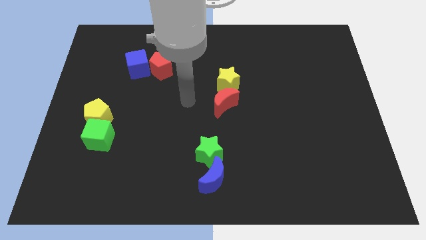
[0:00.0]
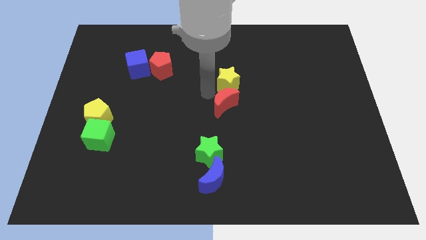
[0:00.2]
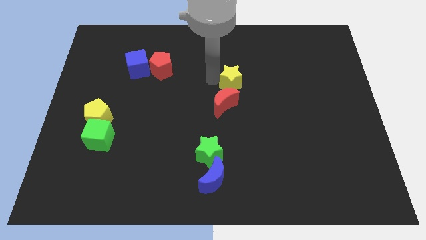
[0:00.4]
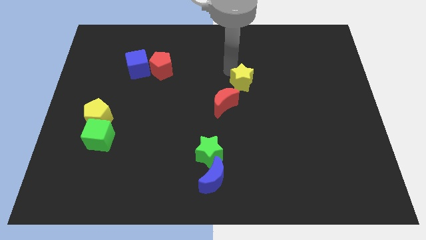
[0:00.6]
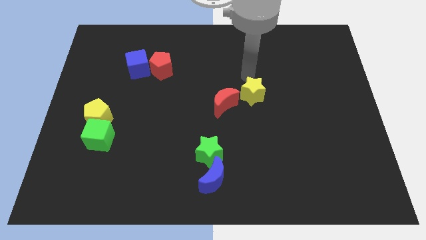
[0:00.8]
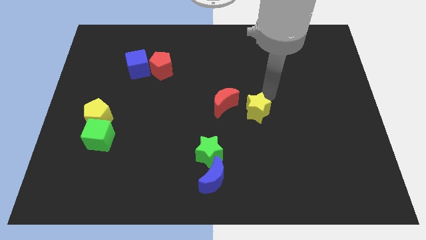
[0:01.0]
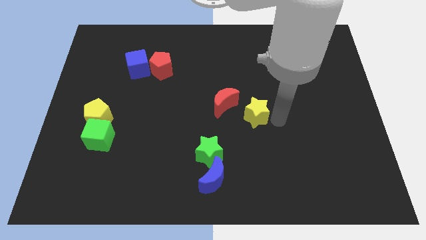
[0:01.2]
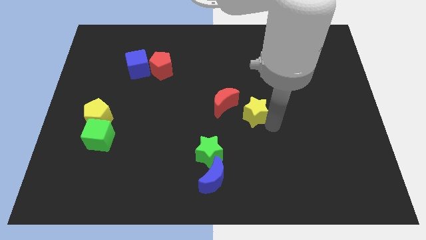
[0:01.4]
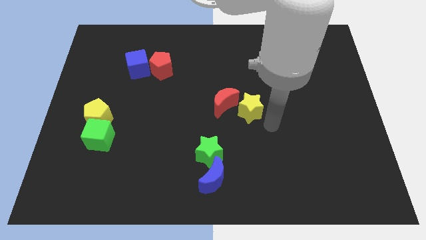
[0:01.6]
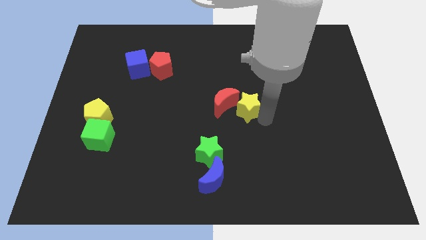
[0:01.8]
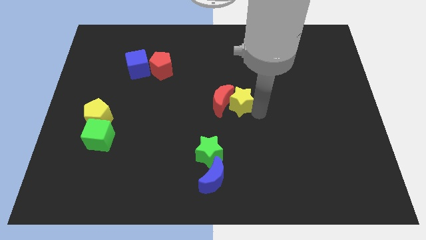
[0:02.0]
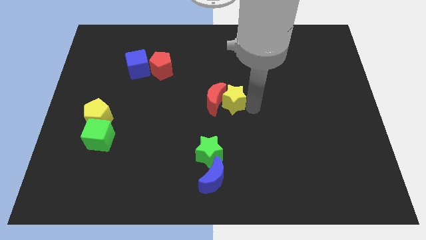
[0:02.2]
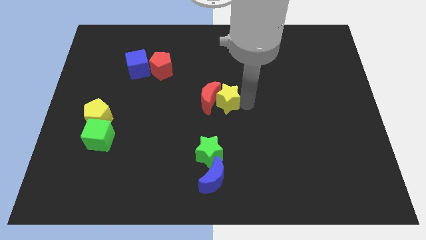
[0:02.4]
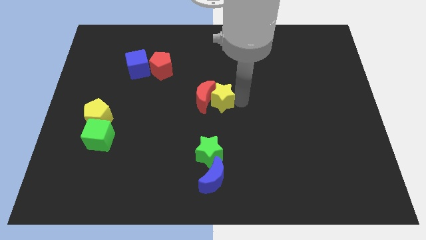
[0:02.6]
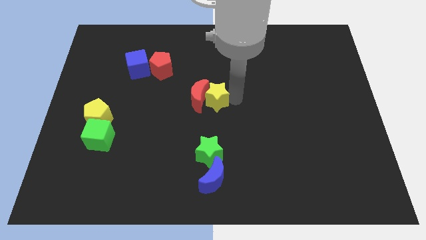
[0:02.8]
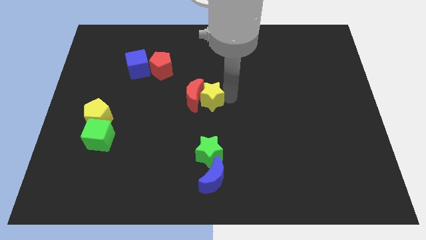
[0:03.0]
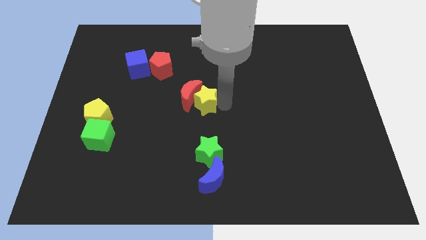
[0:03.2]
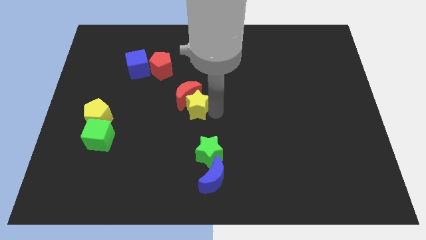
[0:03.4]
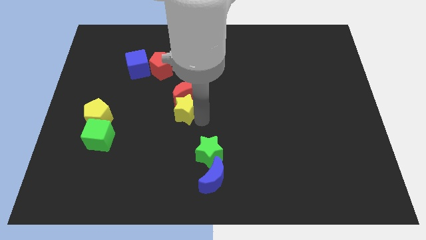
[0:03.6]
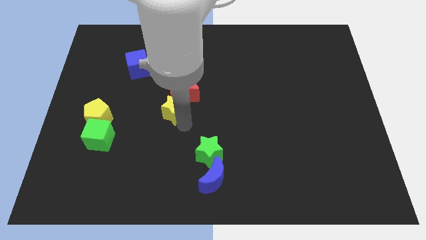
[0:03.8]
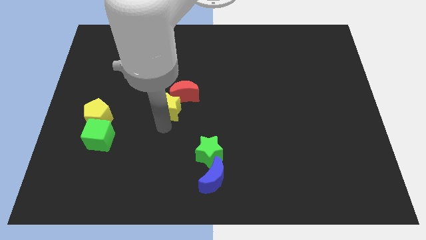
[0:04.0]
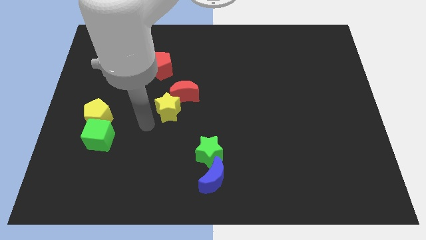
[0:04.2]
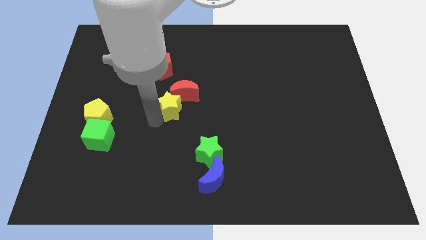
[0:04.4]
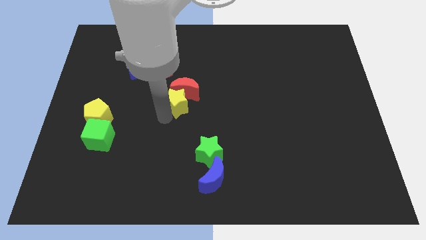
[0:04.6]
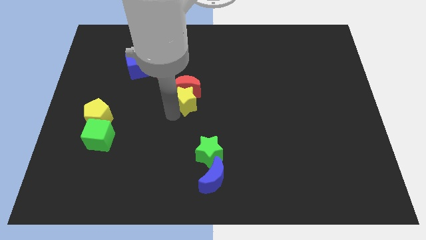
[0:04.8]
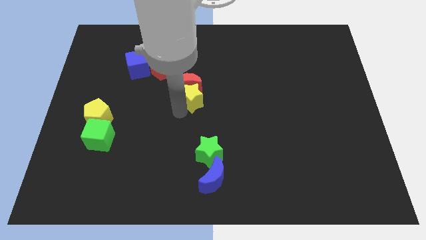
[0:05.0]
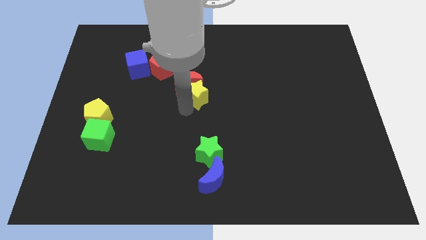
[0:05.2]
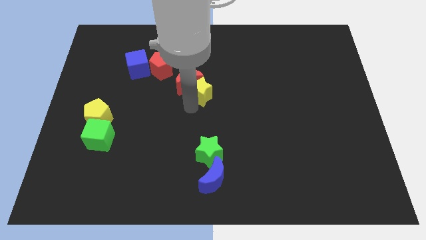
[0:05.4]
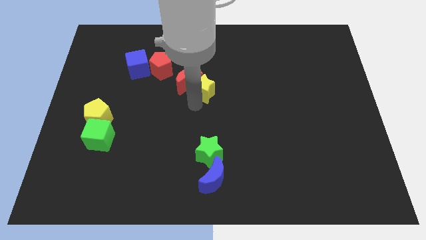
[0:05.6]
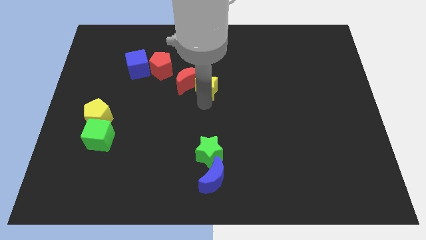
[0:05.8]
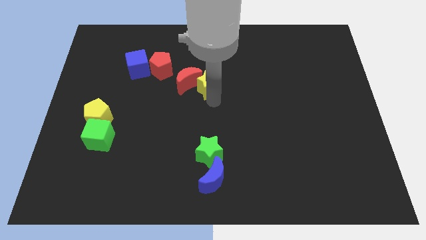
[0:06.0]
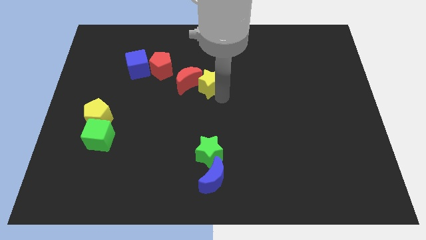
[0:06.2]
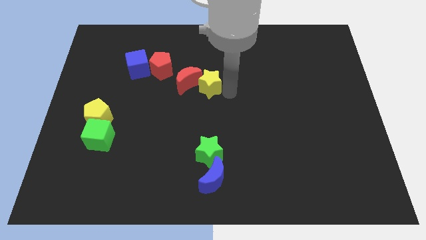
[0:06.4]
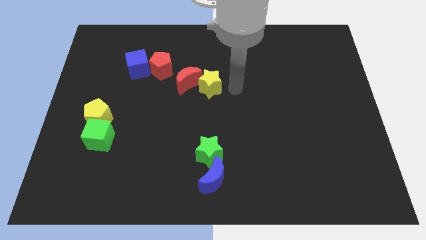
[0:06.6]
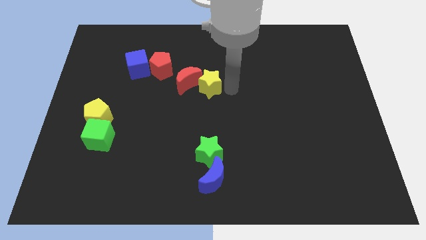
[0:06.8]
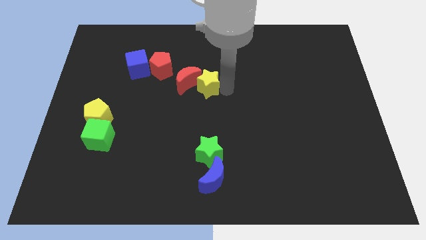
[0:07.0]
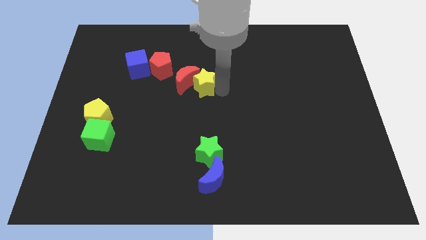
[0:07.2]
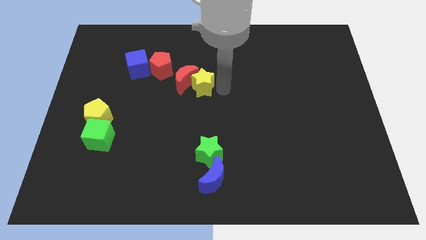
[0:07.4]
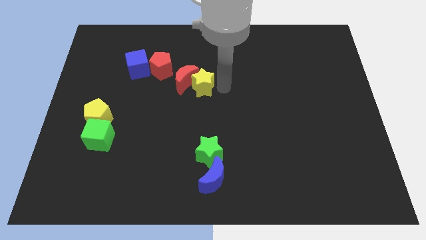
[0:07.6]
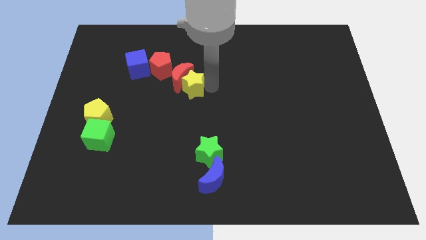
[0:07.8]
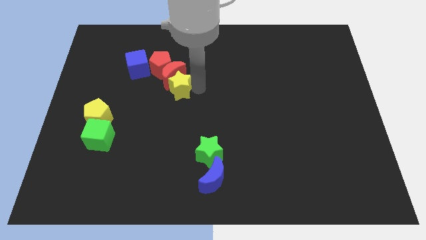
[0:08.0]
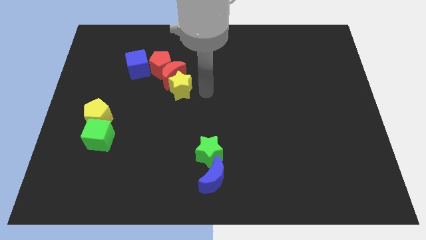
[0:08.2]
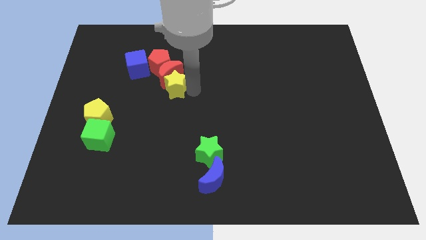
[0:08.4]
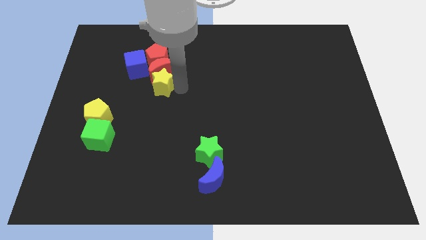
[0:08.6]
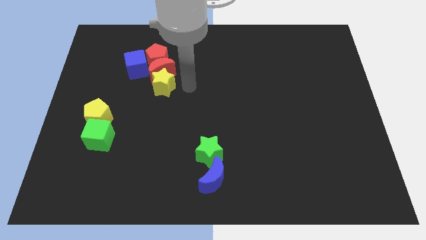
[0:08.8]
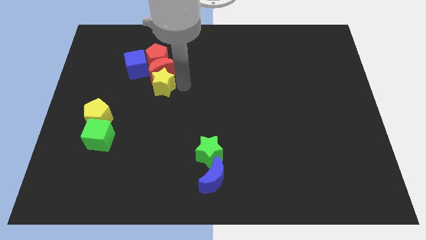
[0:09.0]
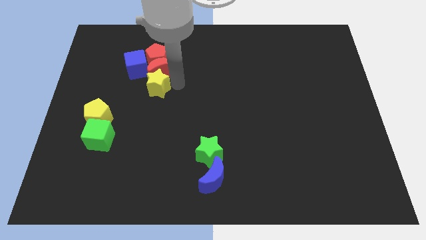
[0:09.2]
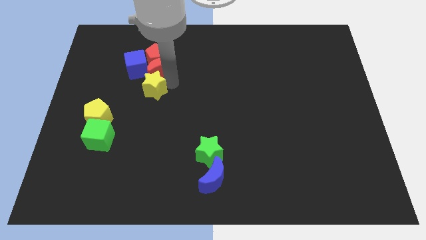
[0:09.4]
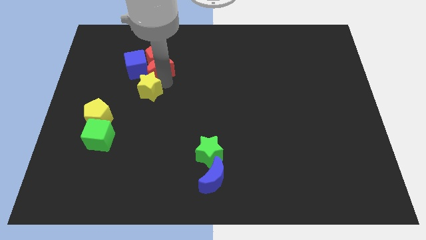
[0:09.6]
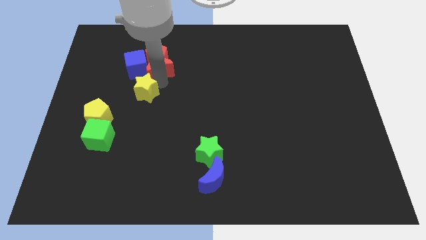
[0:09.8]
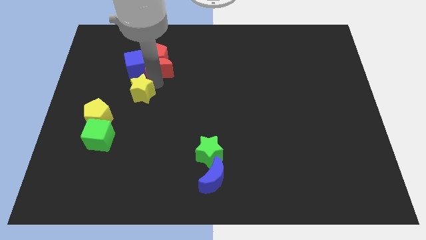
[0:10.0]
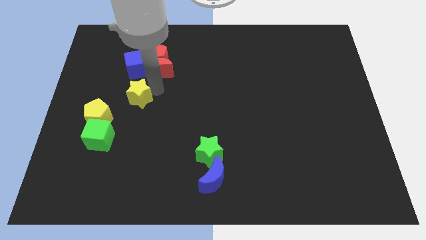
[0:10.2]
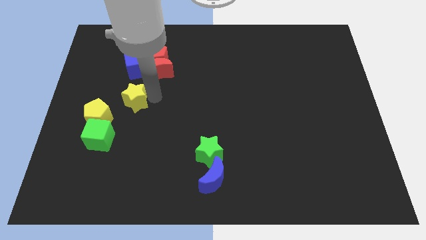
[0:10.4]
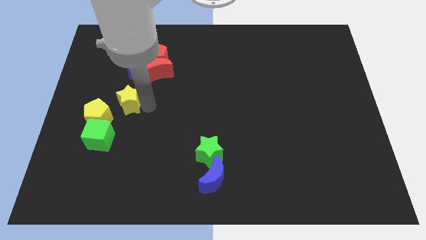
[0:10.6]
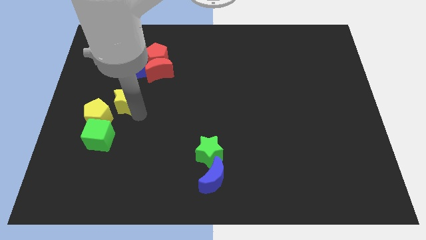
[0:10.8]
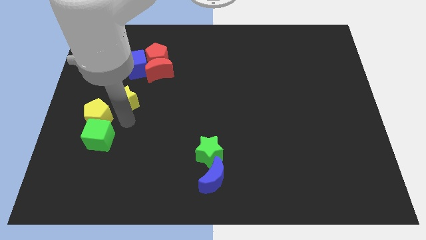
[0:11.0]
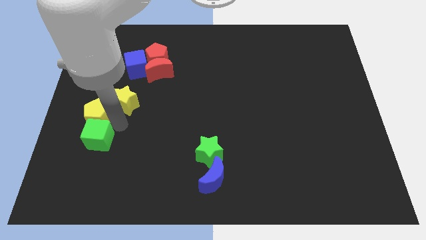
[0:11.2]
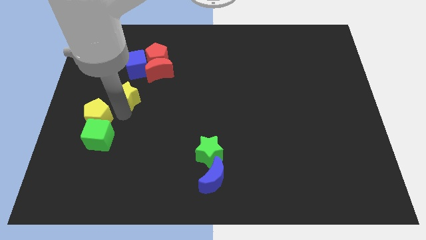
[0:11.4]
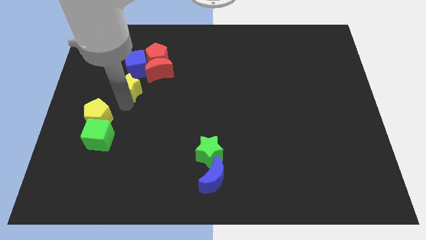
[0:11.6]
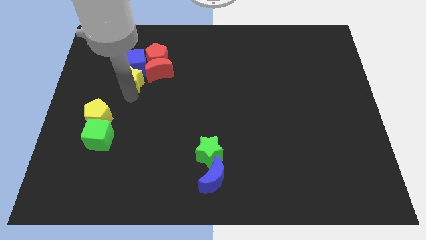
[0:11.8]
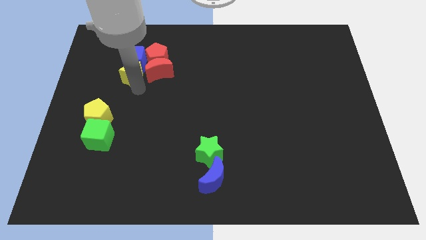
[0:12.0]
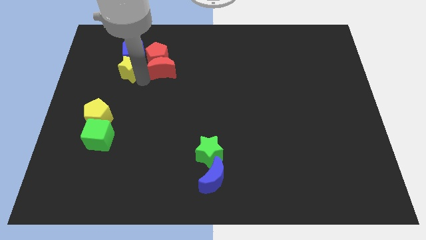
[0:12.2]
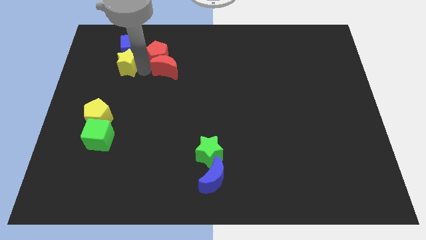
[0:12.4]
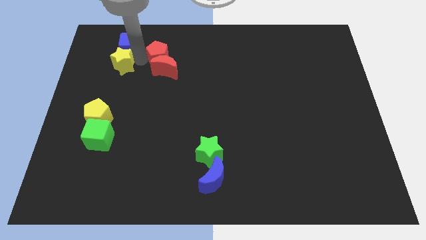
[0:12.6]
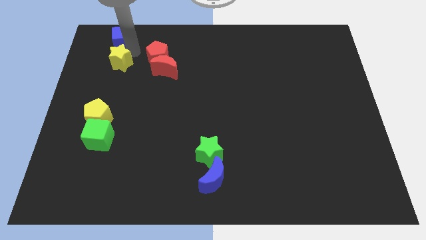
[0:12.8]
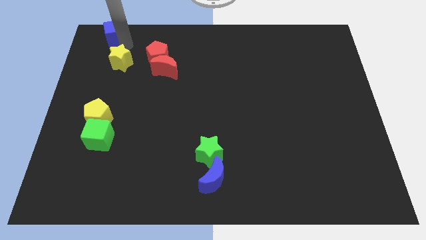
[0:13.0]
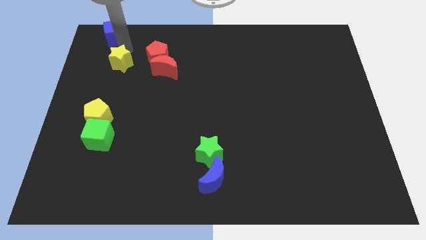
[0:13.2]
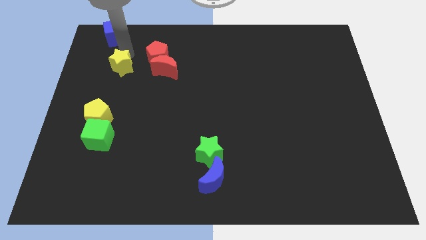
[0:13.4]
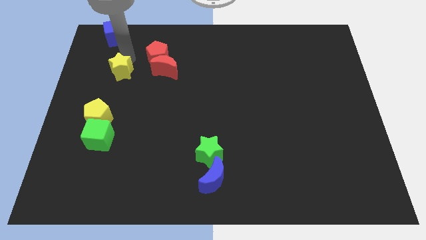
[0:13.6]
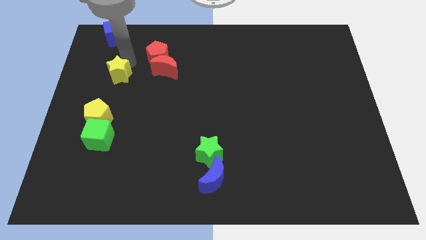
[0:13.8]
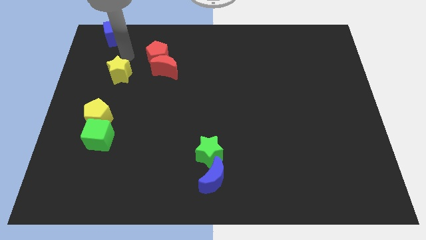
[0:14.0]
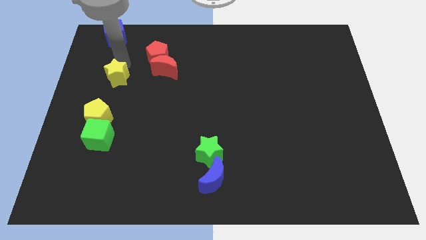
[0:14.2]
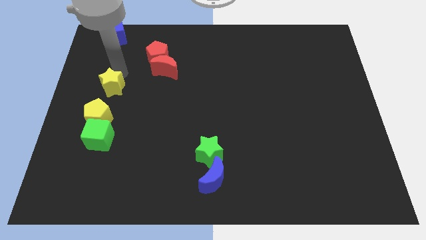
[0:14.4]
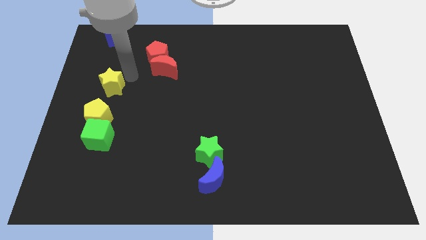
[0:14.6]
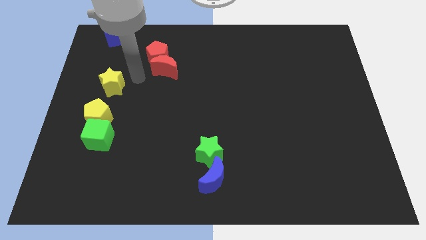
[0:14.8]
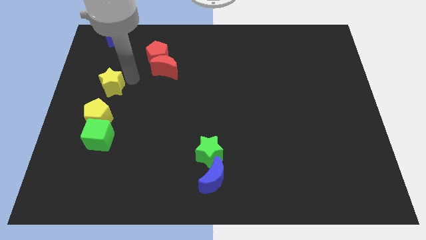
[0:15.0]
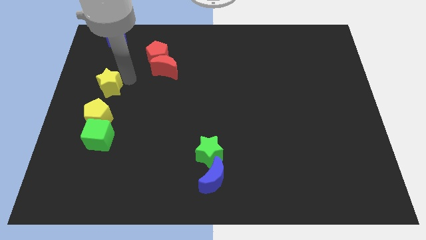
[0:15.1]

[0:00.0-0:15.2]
put the yellow star to the left side
